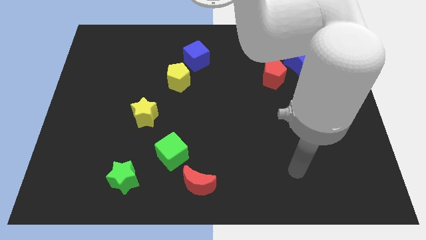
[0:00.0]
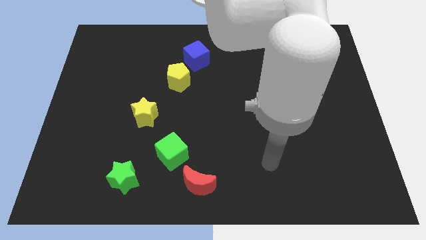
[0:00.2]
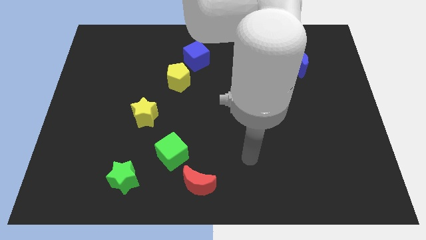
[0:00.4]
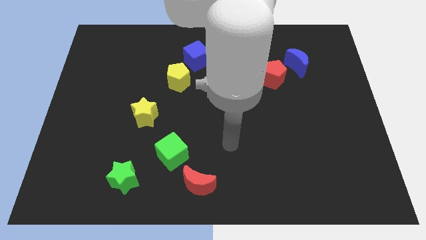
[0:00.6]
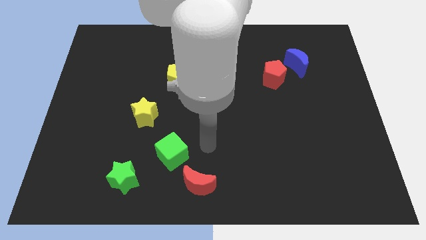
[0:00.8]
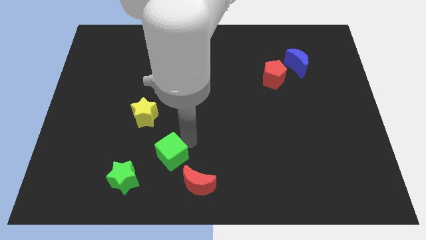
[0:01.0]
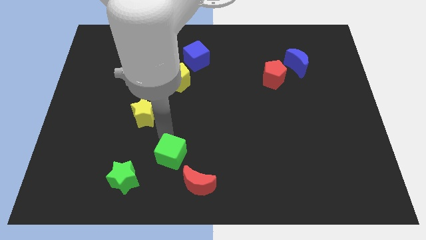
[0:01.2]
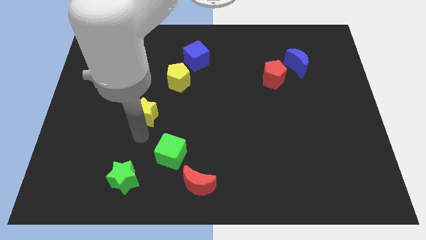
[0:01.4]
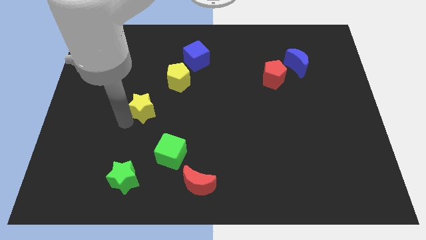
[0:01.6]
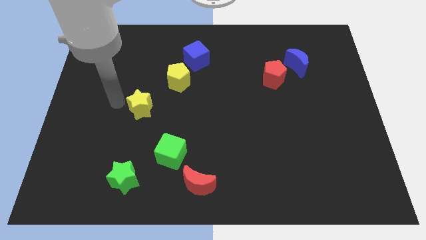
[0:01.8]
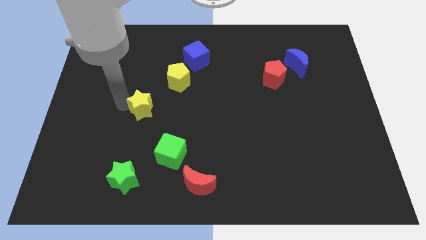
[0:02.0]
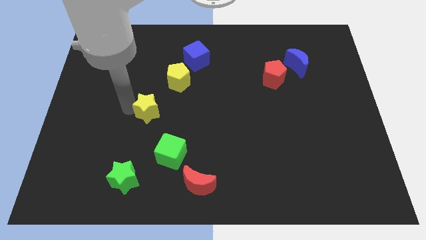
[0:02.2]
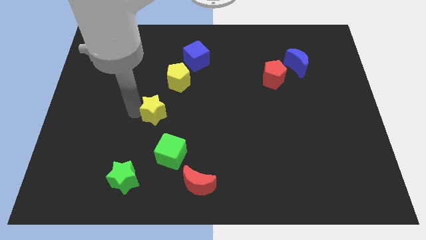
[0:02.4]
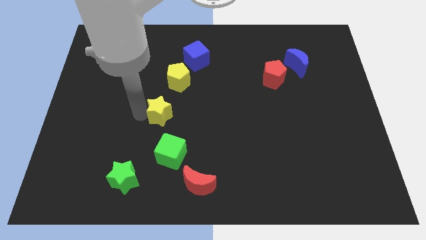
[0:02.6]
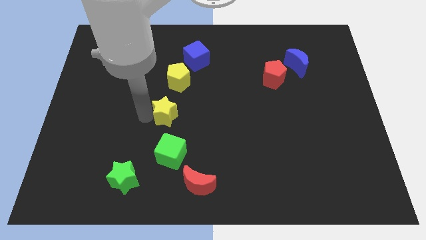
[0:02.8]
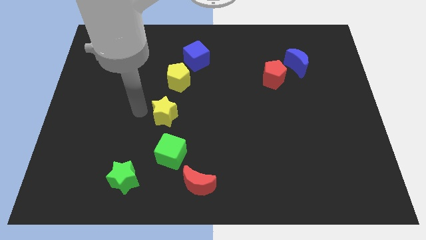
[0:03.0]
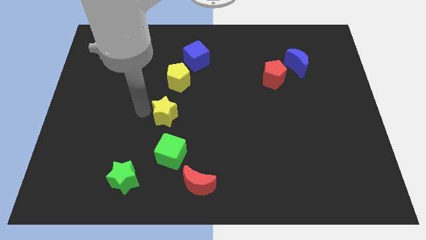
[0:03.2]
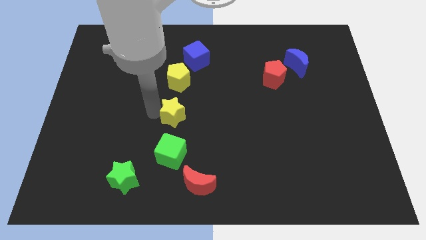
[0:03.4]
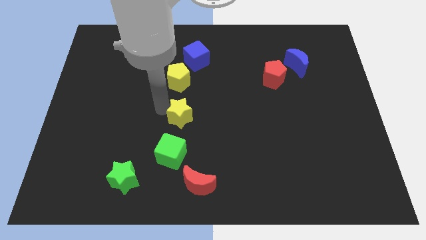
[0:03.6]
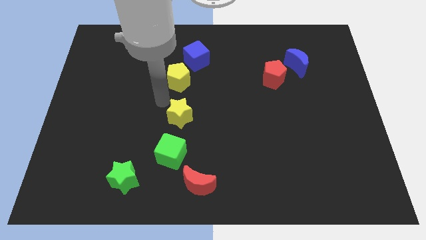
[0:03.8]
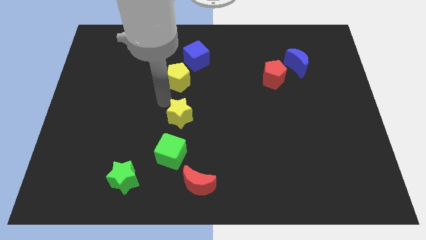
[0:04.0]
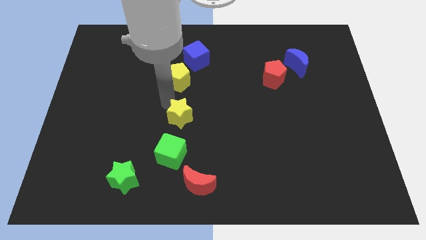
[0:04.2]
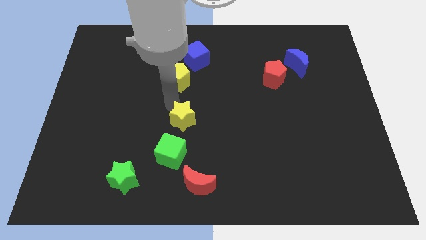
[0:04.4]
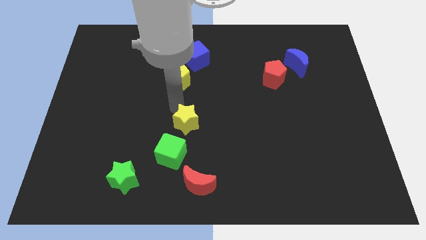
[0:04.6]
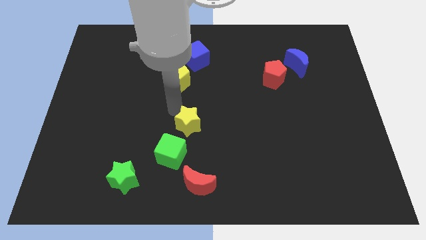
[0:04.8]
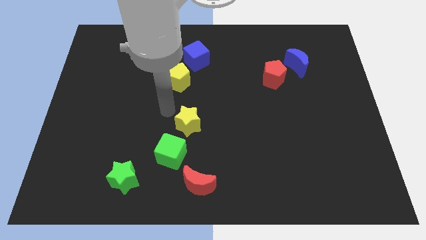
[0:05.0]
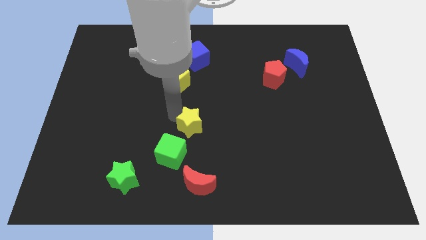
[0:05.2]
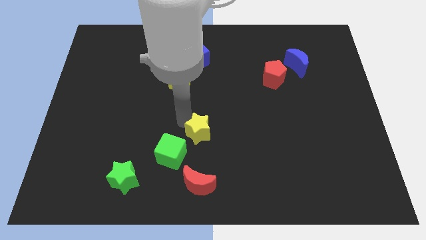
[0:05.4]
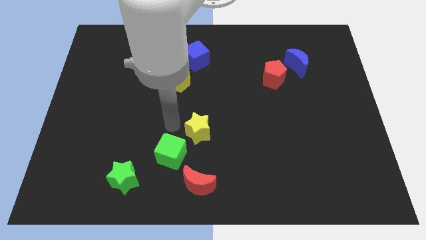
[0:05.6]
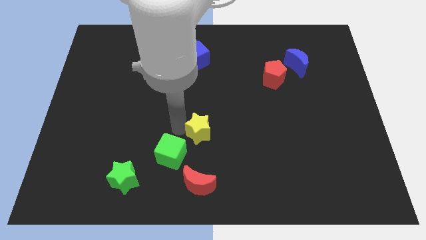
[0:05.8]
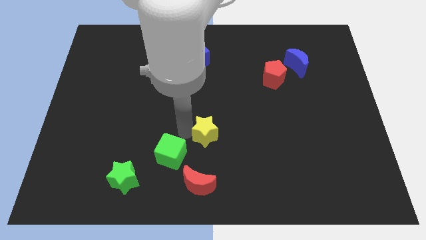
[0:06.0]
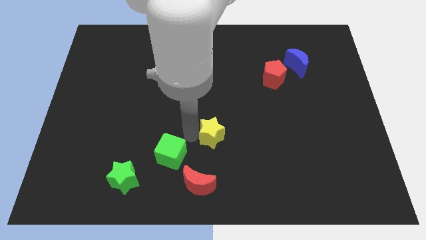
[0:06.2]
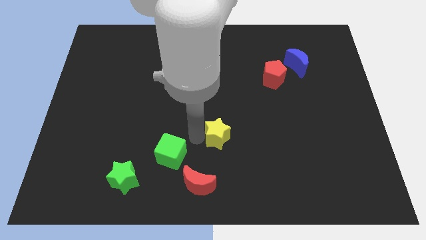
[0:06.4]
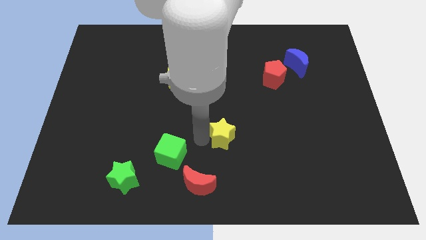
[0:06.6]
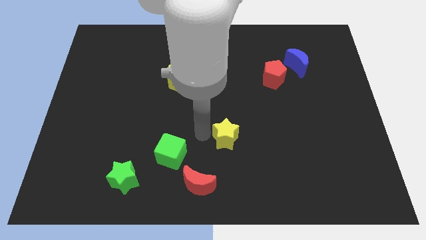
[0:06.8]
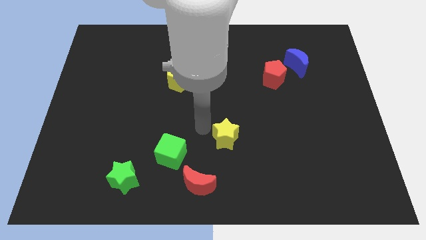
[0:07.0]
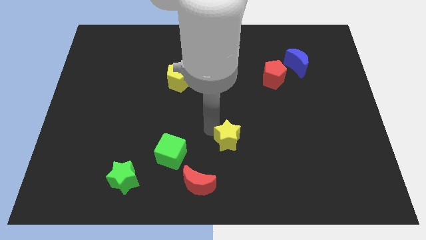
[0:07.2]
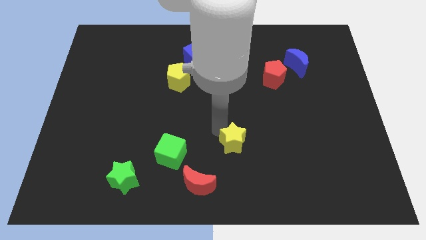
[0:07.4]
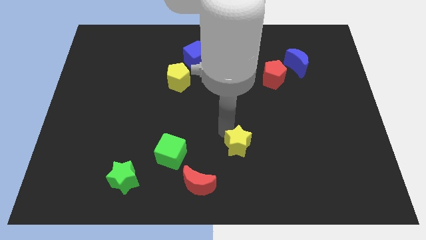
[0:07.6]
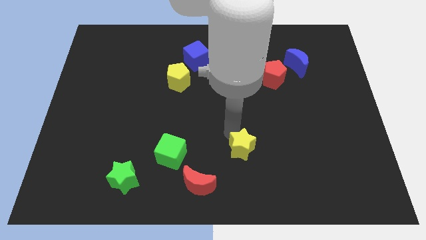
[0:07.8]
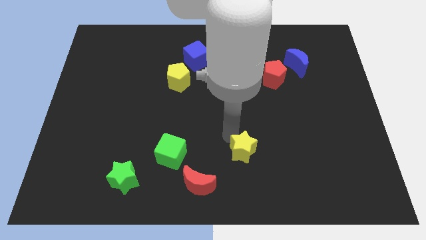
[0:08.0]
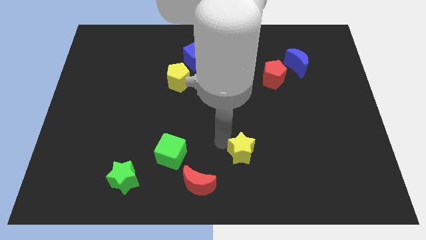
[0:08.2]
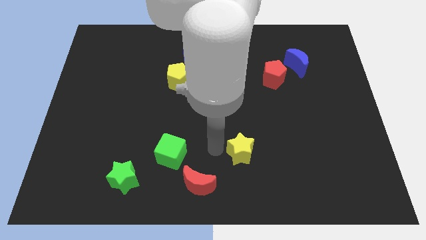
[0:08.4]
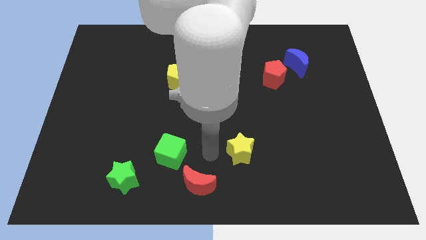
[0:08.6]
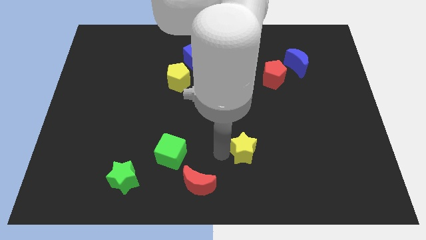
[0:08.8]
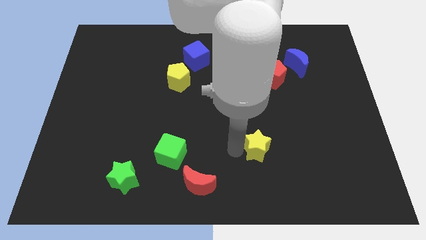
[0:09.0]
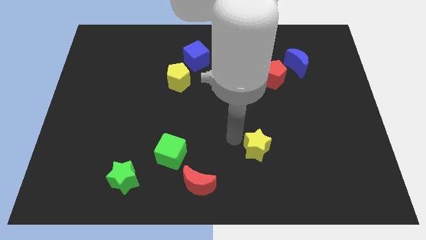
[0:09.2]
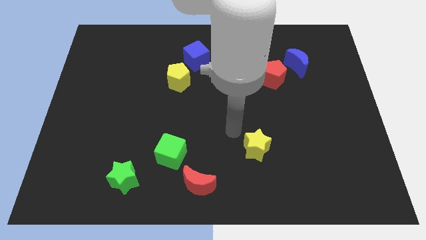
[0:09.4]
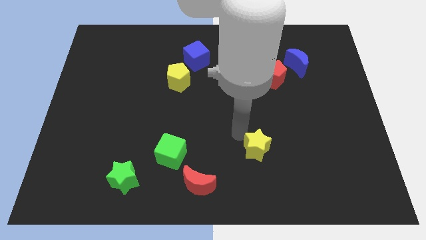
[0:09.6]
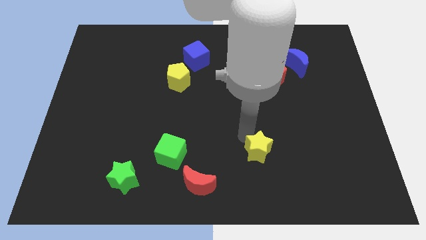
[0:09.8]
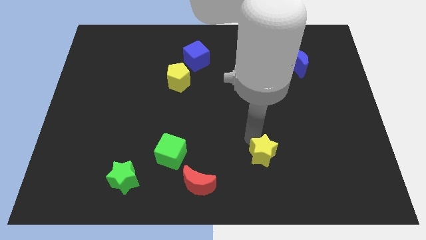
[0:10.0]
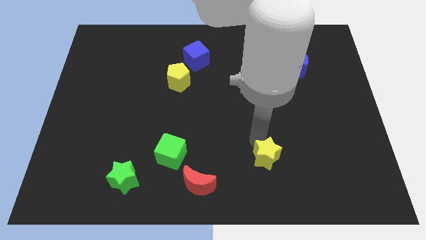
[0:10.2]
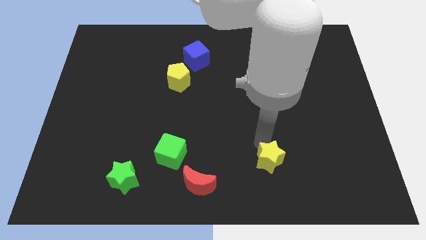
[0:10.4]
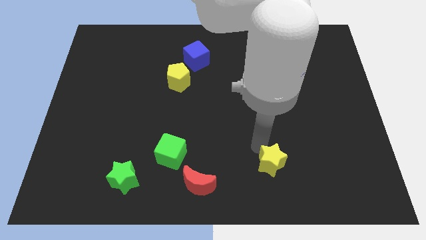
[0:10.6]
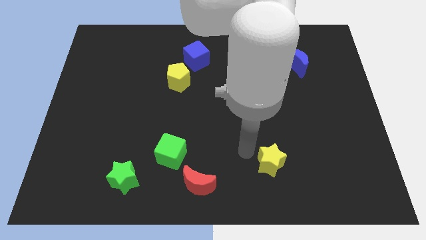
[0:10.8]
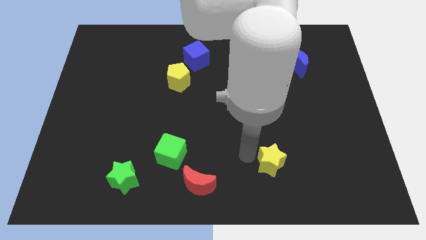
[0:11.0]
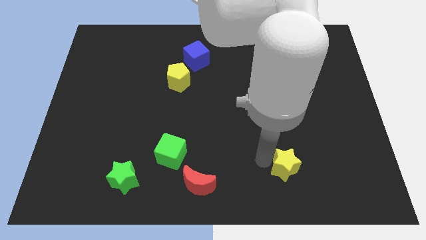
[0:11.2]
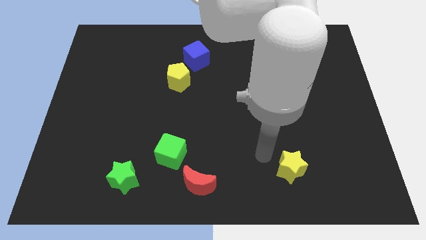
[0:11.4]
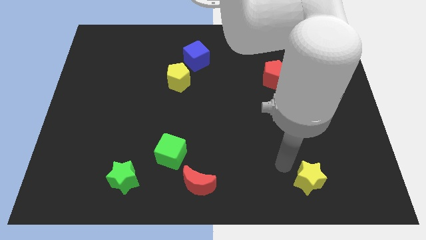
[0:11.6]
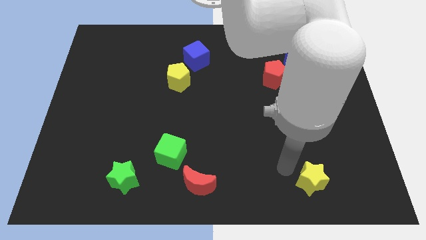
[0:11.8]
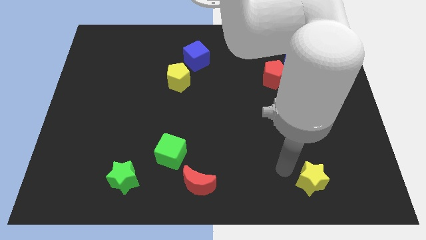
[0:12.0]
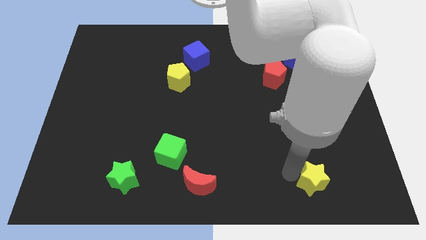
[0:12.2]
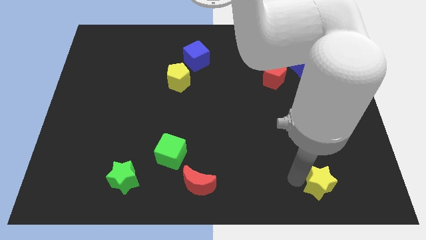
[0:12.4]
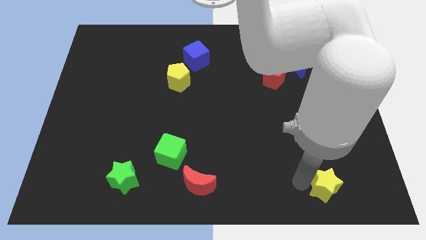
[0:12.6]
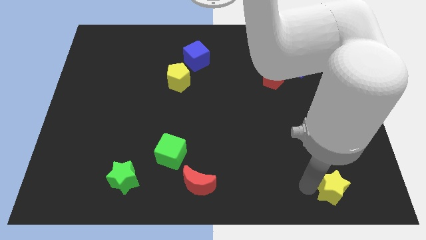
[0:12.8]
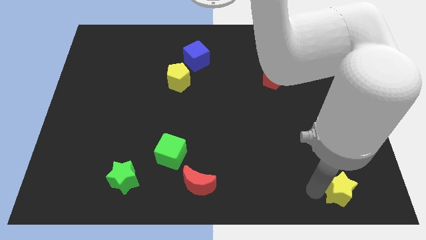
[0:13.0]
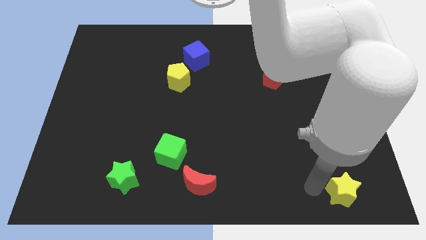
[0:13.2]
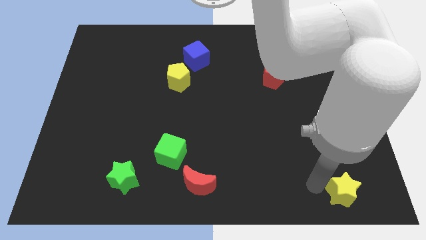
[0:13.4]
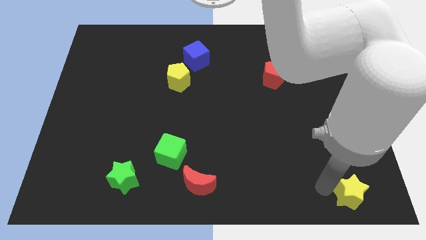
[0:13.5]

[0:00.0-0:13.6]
move the yellow star to the bottom right

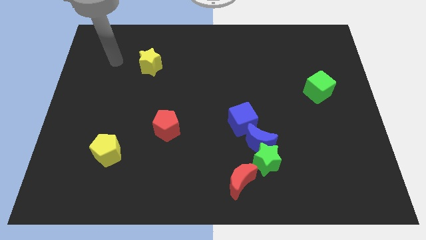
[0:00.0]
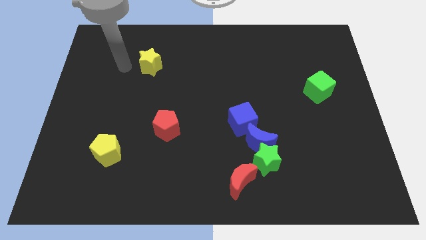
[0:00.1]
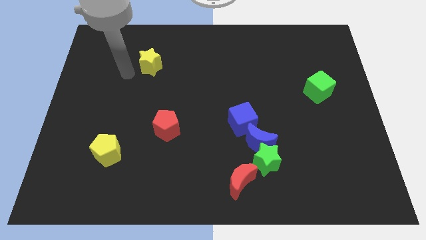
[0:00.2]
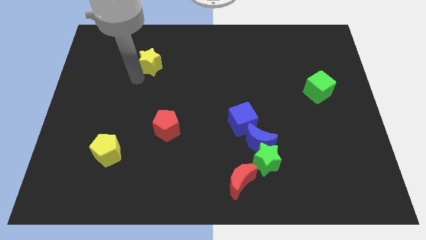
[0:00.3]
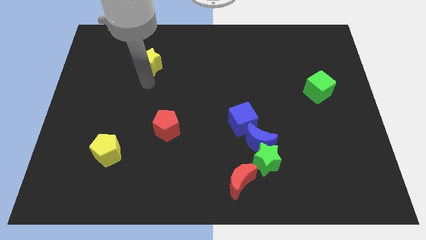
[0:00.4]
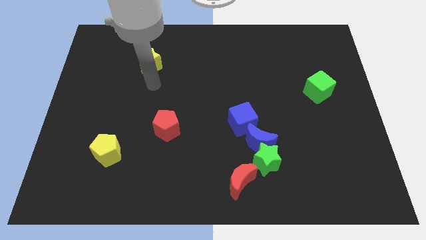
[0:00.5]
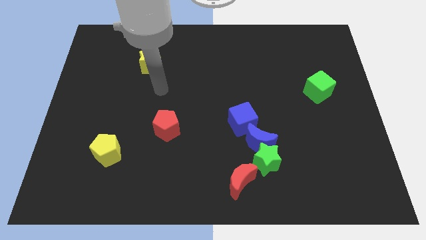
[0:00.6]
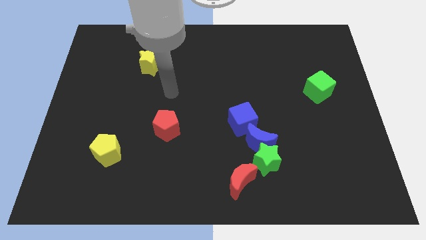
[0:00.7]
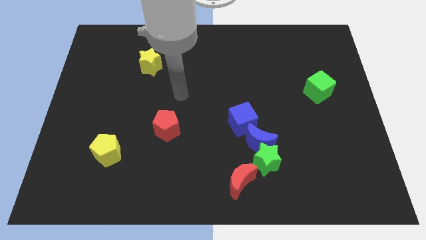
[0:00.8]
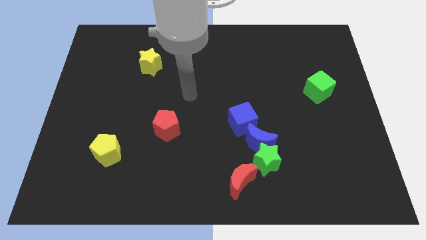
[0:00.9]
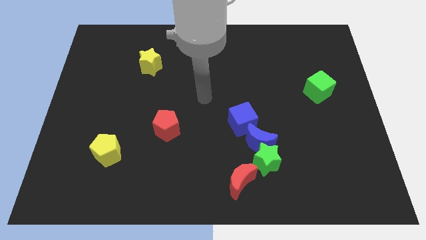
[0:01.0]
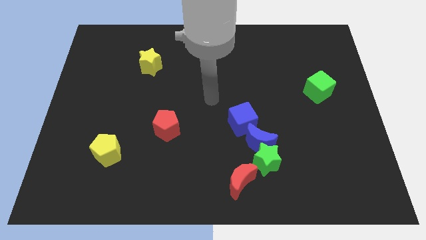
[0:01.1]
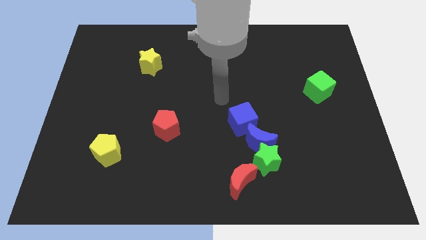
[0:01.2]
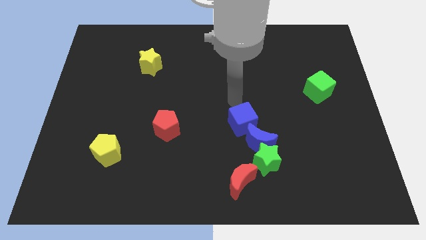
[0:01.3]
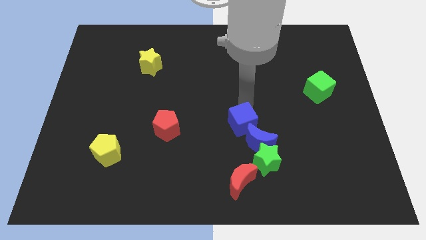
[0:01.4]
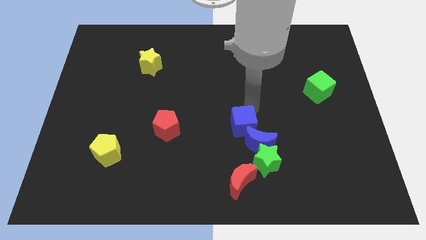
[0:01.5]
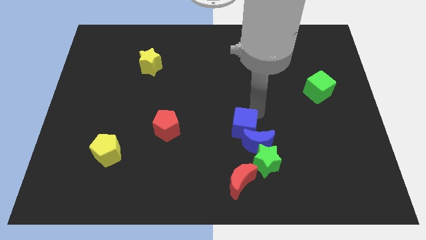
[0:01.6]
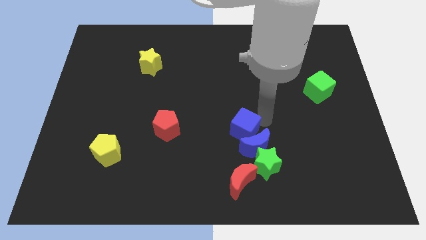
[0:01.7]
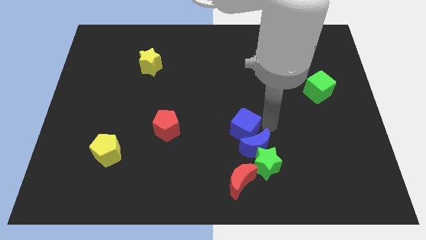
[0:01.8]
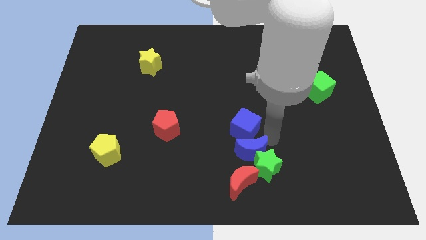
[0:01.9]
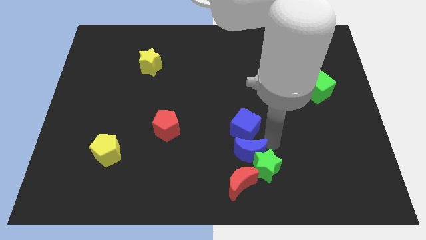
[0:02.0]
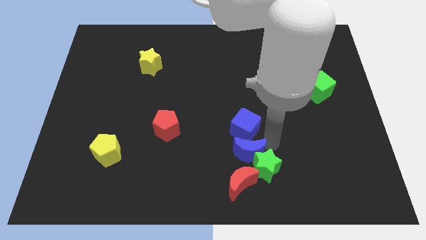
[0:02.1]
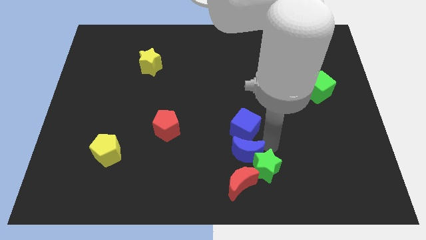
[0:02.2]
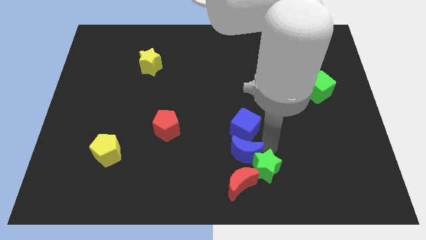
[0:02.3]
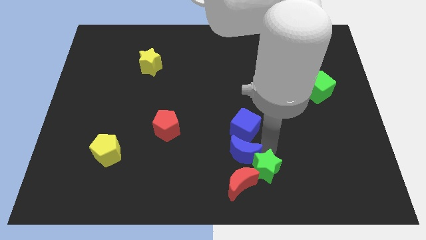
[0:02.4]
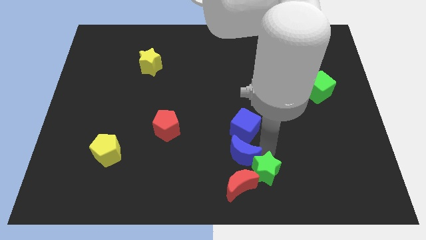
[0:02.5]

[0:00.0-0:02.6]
push the green star to the bottom
